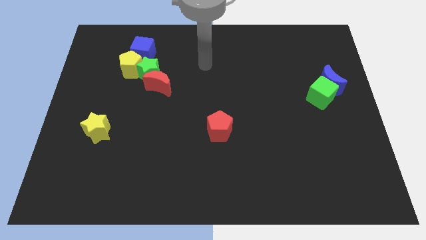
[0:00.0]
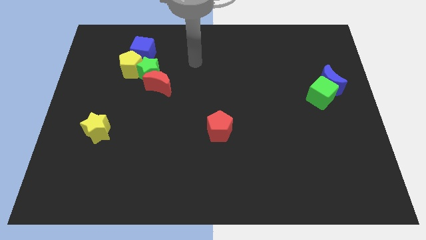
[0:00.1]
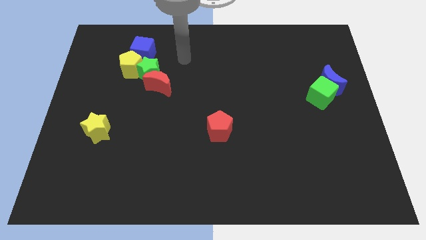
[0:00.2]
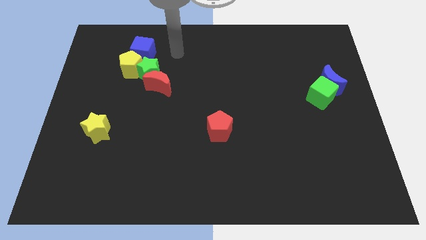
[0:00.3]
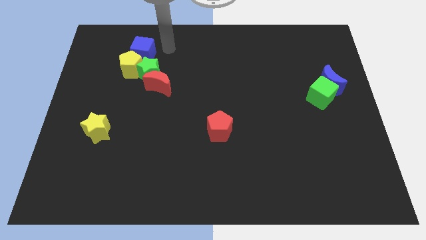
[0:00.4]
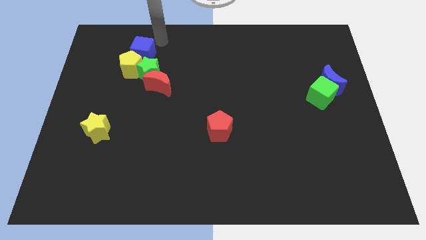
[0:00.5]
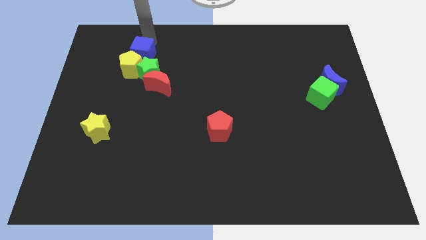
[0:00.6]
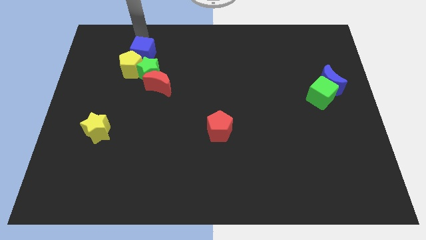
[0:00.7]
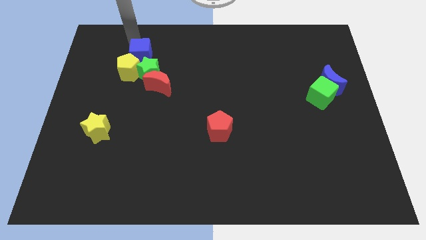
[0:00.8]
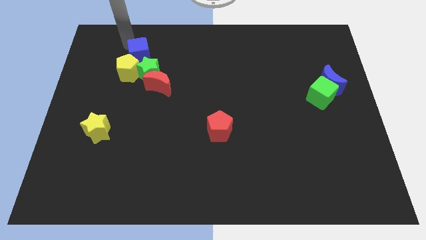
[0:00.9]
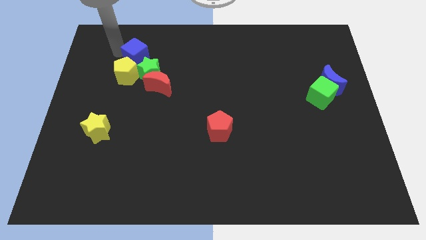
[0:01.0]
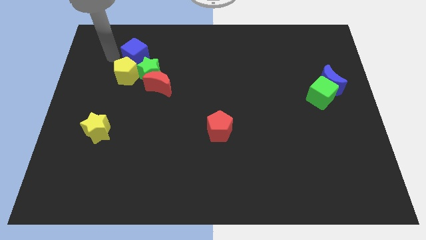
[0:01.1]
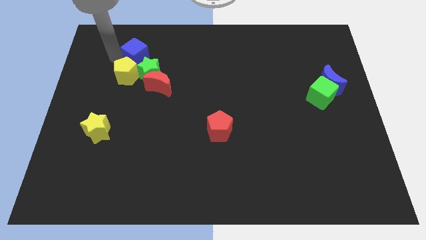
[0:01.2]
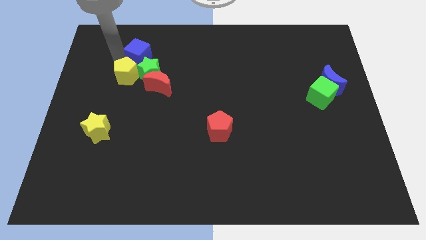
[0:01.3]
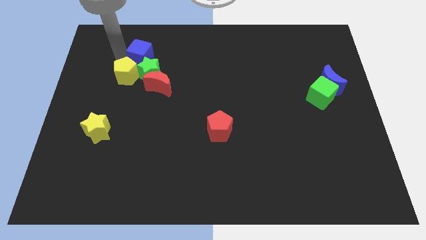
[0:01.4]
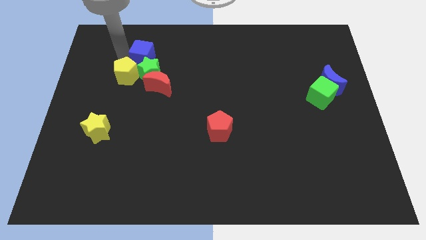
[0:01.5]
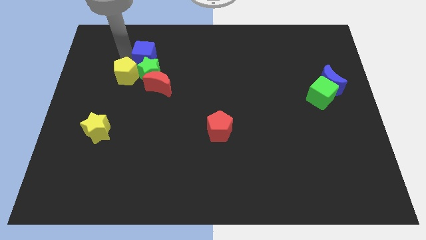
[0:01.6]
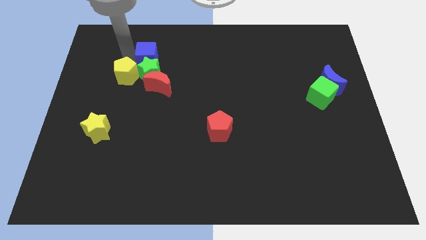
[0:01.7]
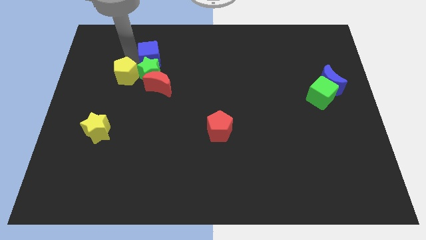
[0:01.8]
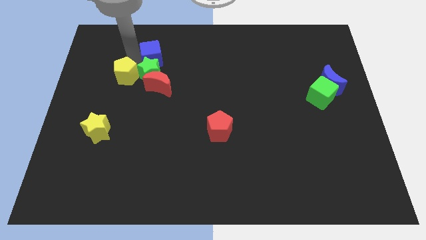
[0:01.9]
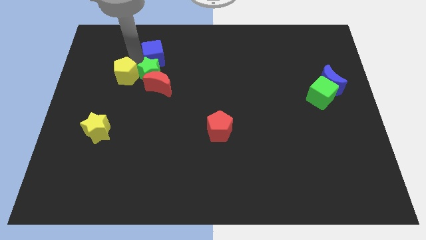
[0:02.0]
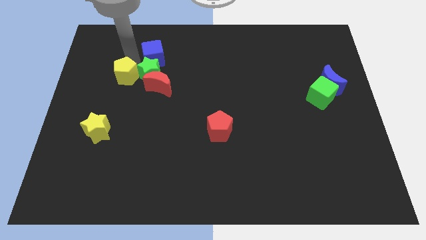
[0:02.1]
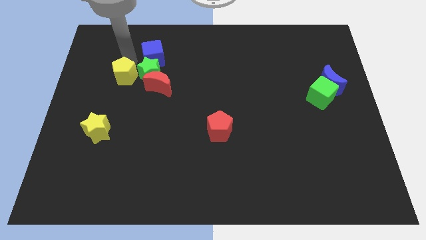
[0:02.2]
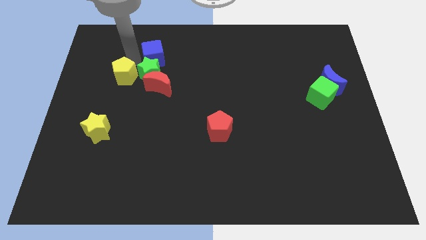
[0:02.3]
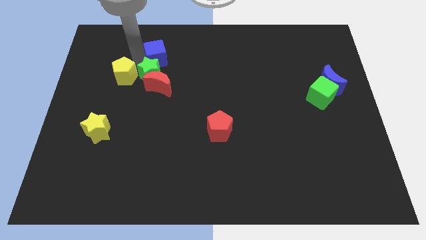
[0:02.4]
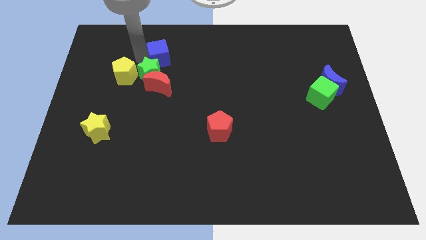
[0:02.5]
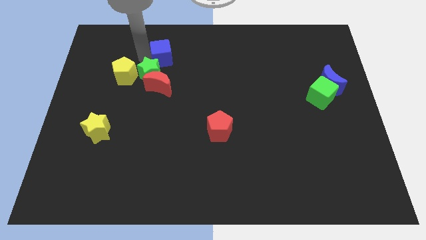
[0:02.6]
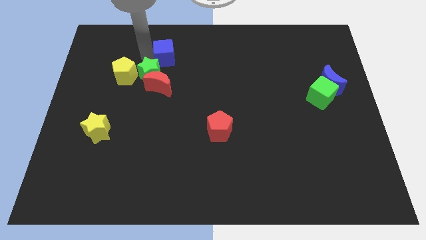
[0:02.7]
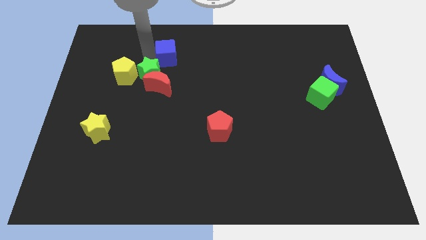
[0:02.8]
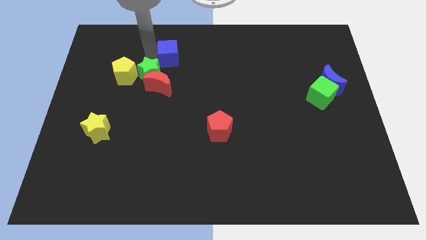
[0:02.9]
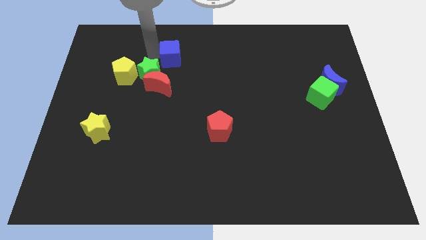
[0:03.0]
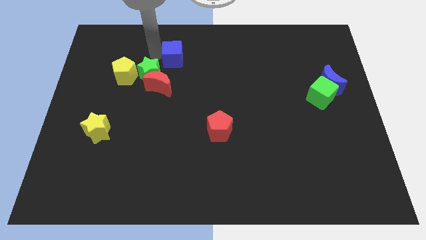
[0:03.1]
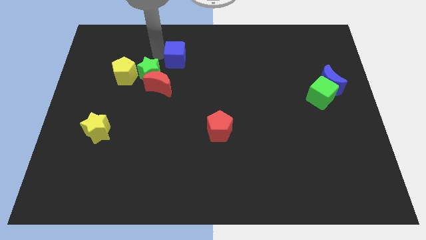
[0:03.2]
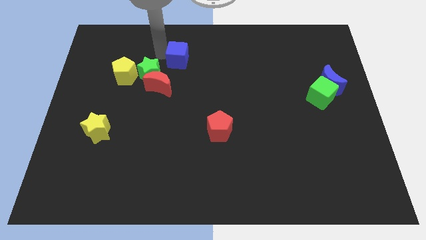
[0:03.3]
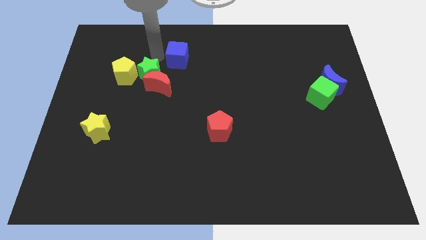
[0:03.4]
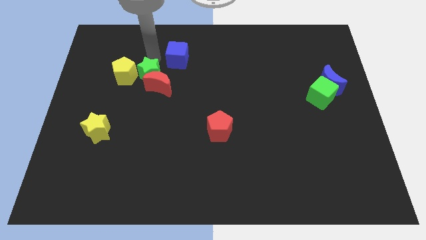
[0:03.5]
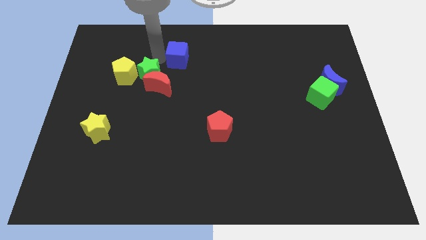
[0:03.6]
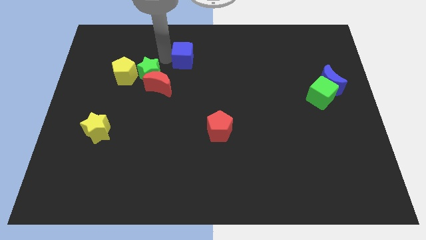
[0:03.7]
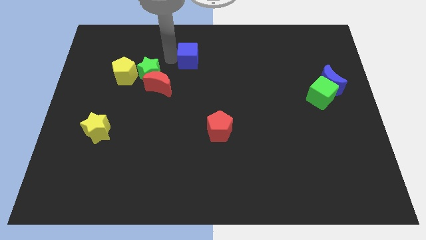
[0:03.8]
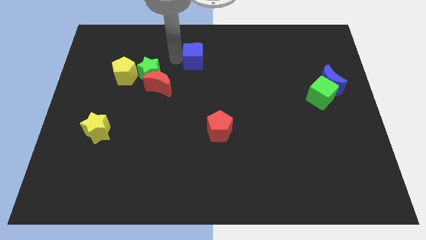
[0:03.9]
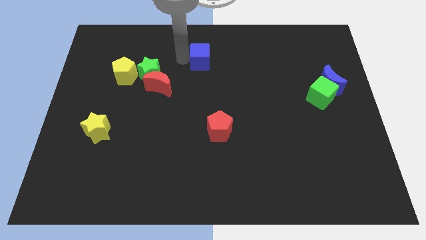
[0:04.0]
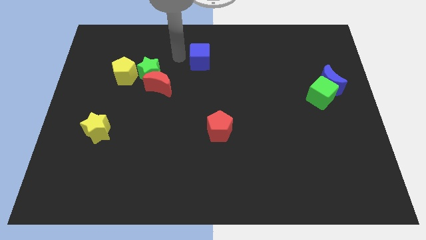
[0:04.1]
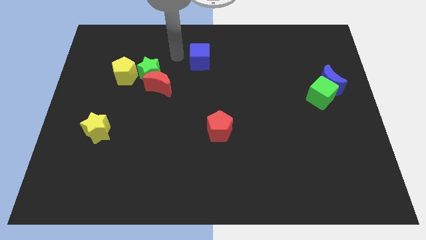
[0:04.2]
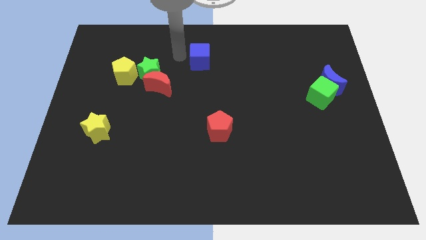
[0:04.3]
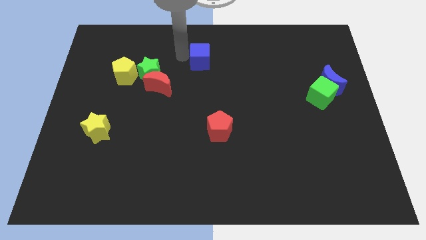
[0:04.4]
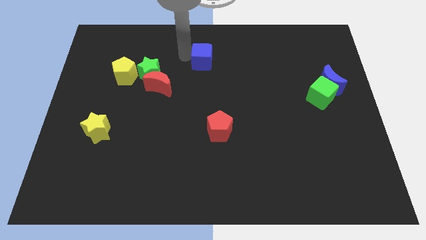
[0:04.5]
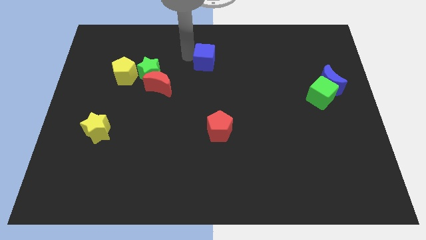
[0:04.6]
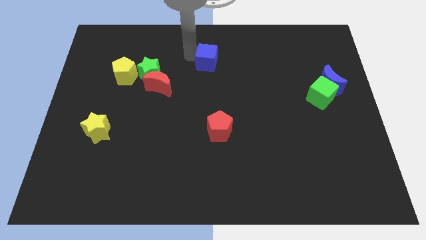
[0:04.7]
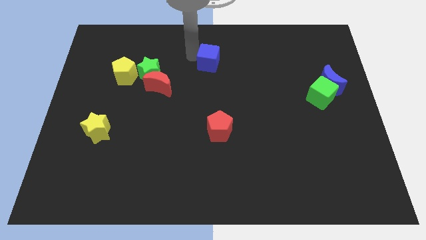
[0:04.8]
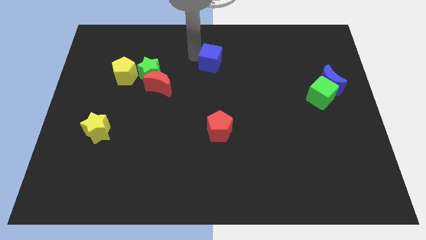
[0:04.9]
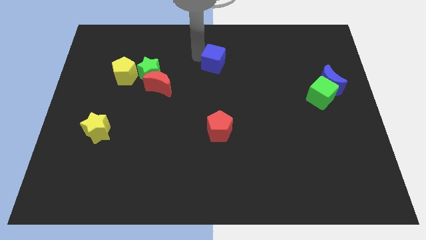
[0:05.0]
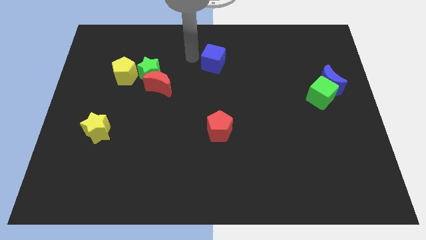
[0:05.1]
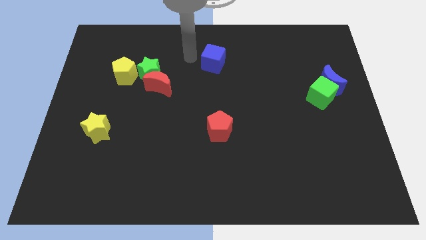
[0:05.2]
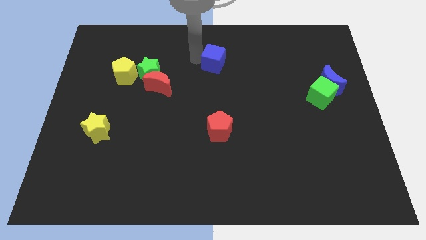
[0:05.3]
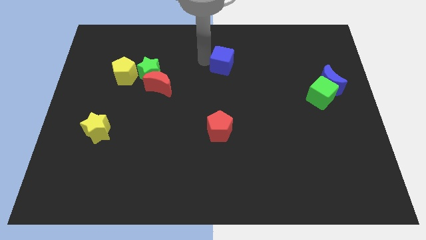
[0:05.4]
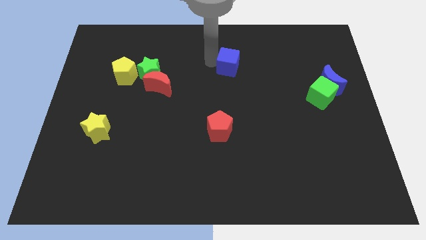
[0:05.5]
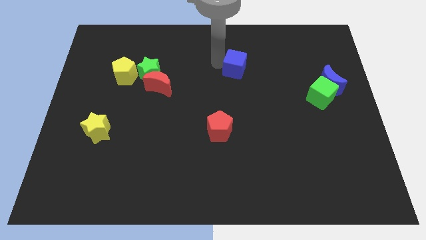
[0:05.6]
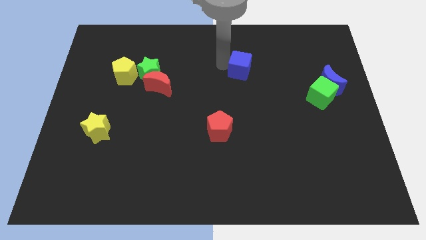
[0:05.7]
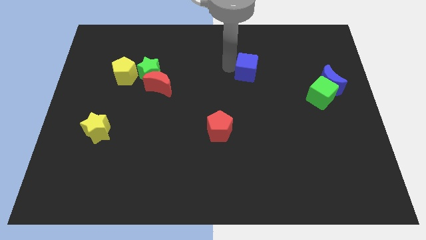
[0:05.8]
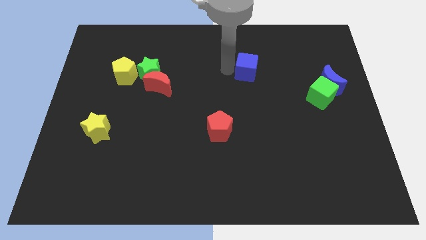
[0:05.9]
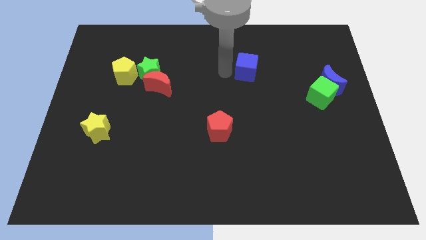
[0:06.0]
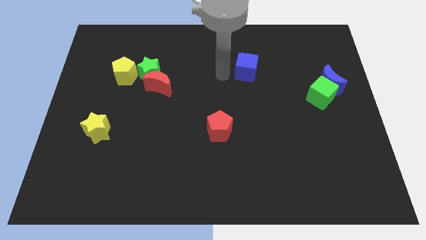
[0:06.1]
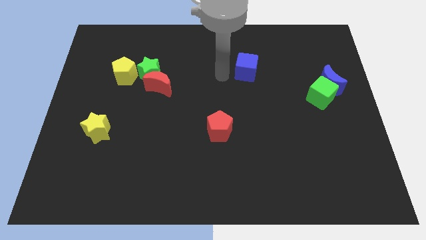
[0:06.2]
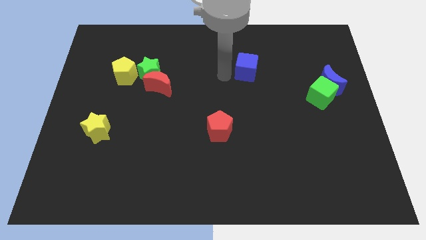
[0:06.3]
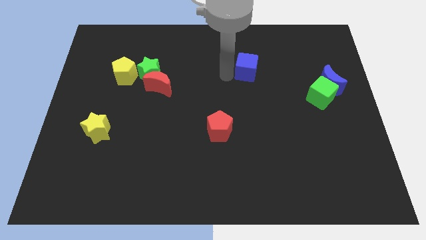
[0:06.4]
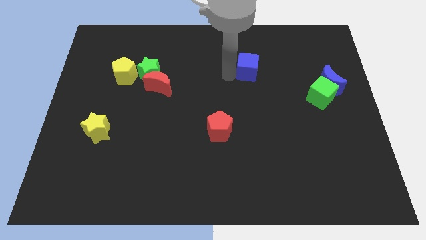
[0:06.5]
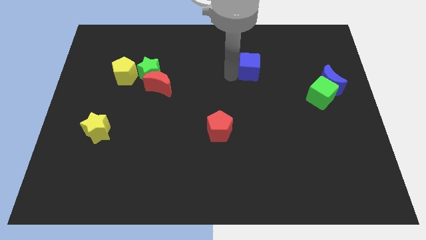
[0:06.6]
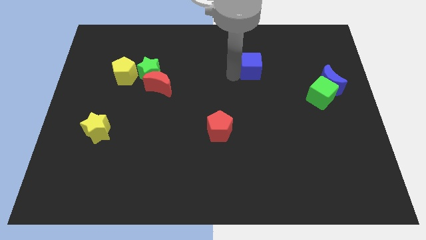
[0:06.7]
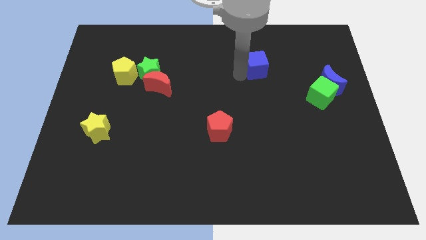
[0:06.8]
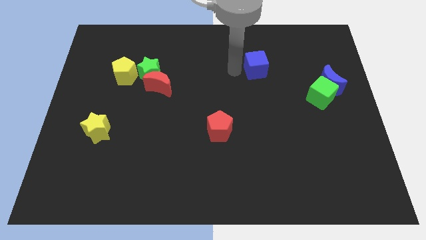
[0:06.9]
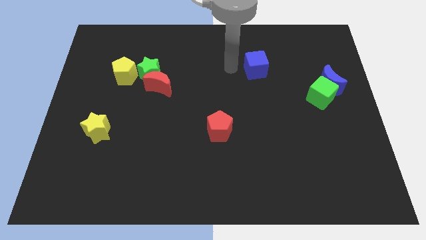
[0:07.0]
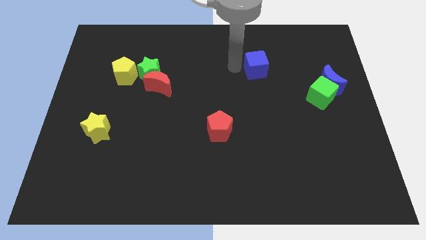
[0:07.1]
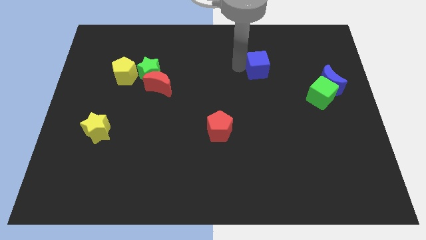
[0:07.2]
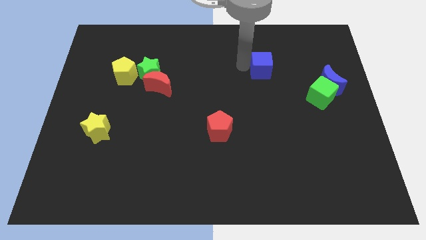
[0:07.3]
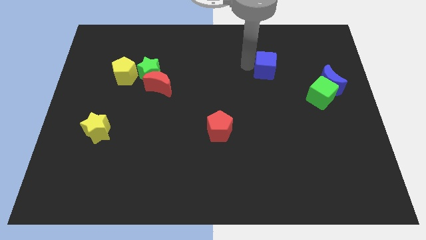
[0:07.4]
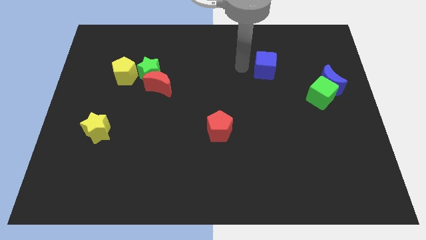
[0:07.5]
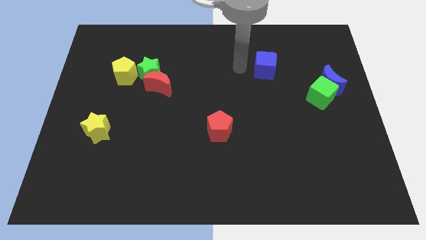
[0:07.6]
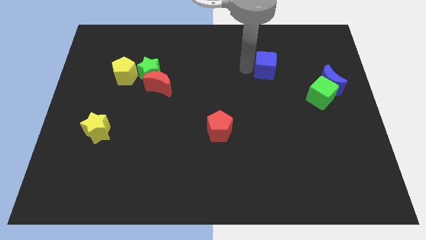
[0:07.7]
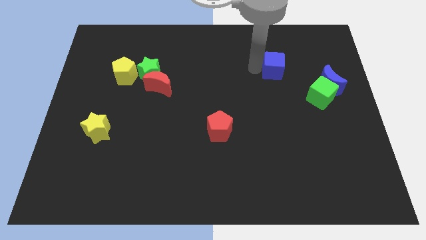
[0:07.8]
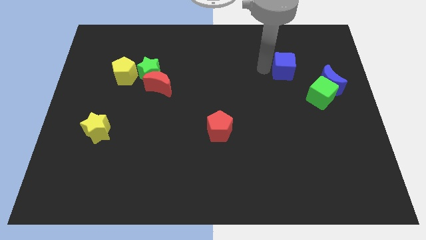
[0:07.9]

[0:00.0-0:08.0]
put the blue cube to the top left side of the blue moon
